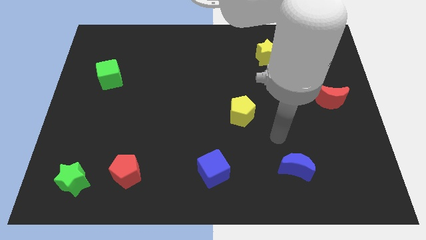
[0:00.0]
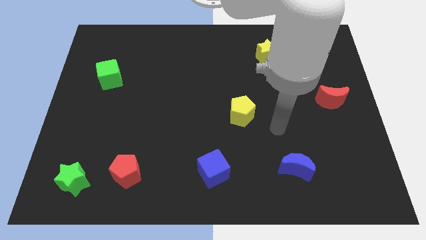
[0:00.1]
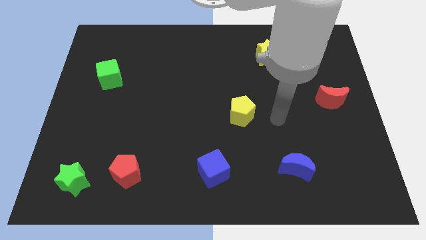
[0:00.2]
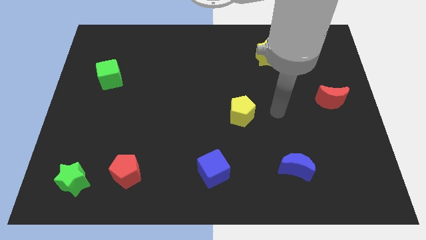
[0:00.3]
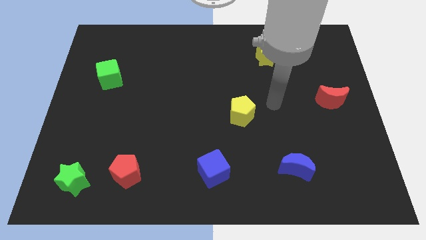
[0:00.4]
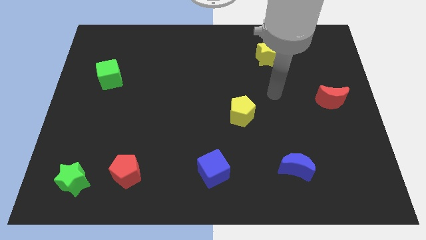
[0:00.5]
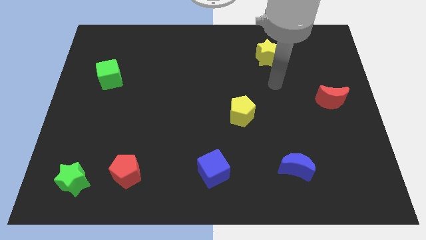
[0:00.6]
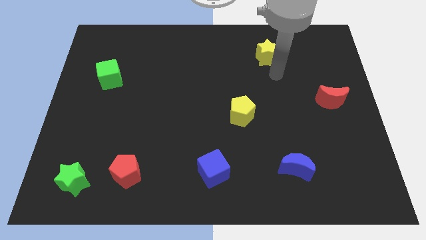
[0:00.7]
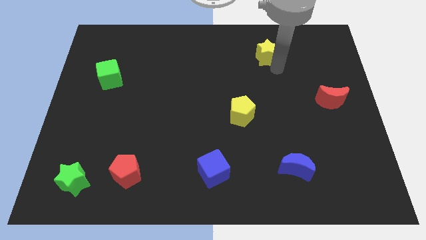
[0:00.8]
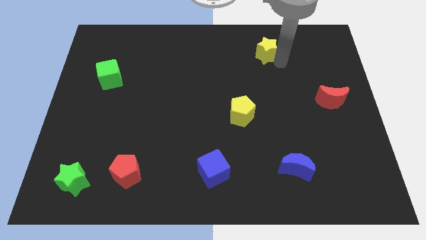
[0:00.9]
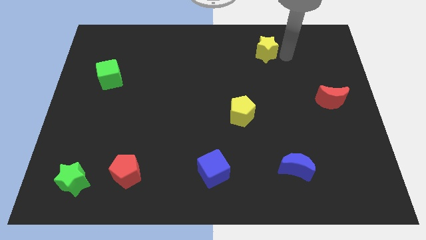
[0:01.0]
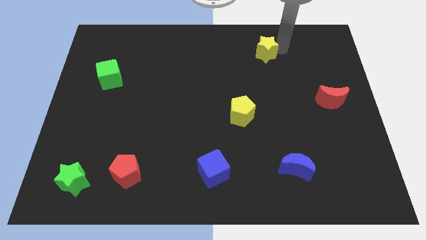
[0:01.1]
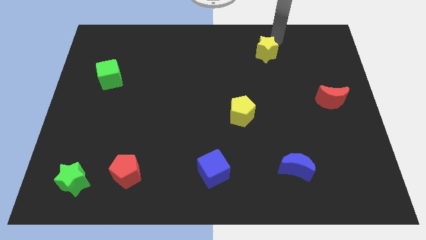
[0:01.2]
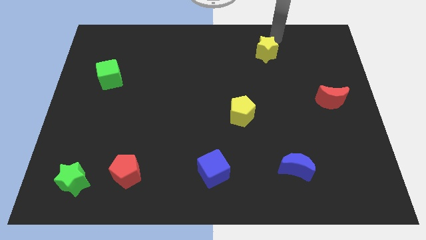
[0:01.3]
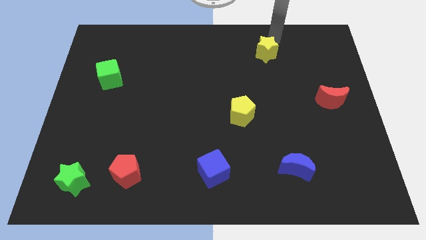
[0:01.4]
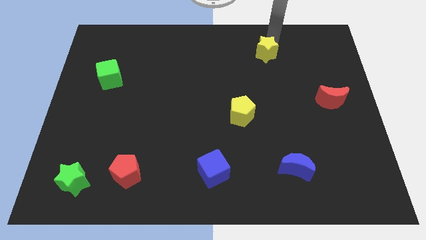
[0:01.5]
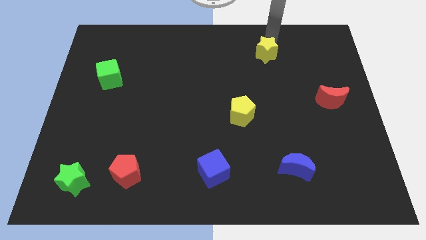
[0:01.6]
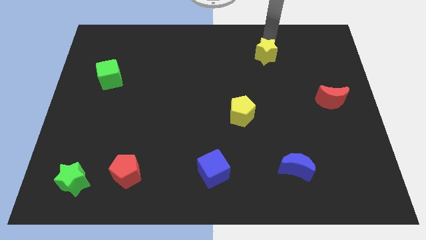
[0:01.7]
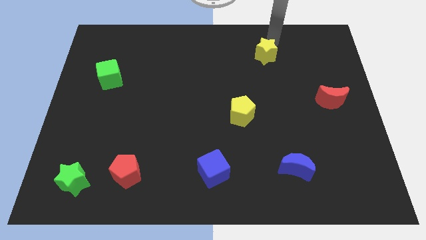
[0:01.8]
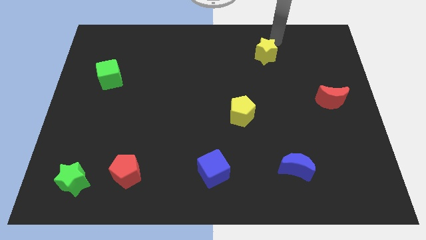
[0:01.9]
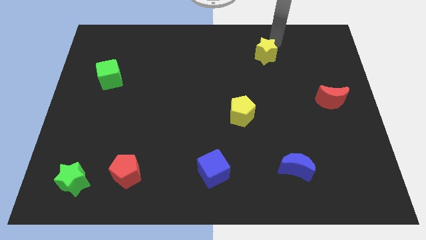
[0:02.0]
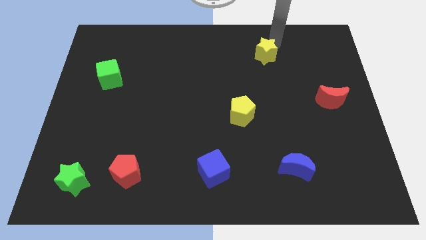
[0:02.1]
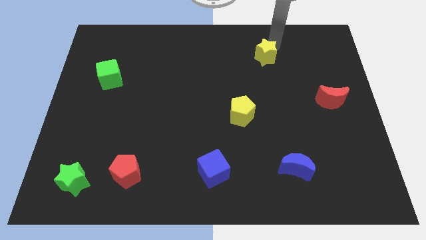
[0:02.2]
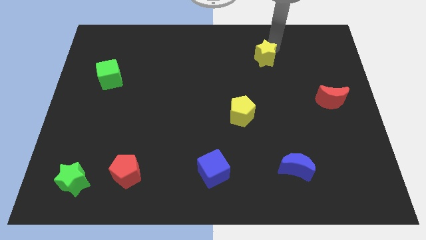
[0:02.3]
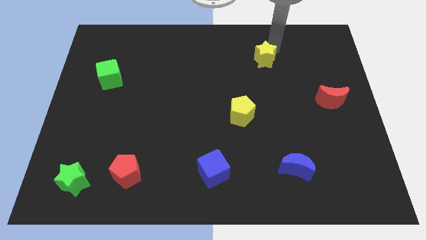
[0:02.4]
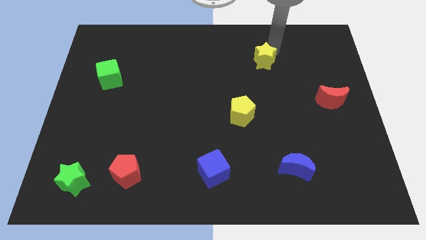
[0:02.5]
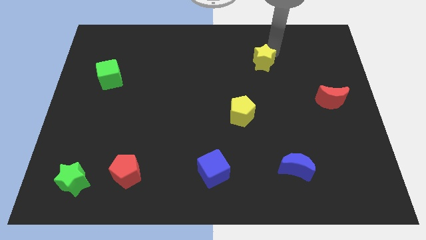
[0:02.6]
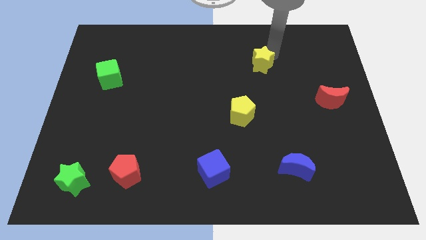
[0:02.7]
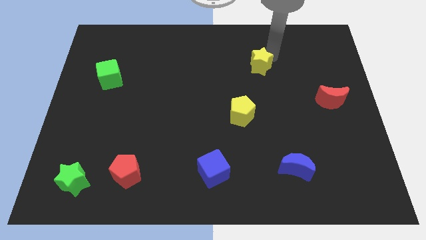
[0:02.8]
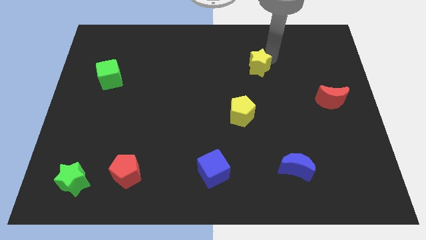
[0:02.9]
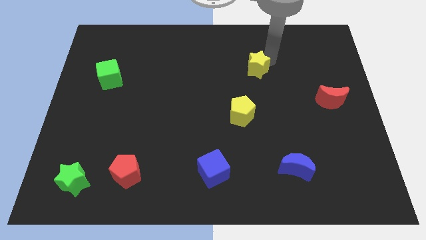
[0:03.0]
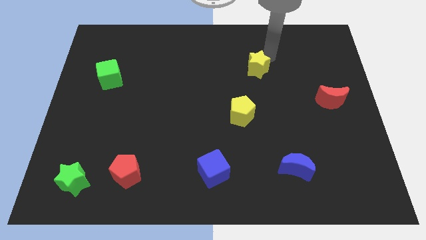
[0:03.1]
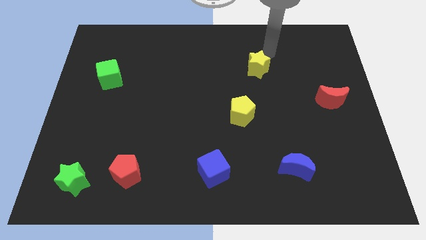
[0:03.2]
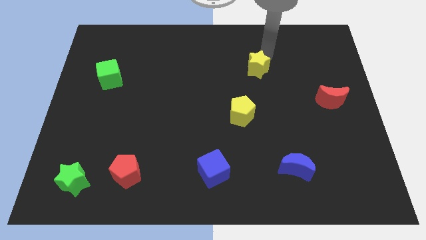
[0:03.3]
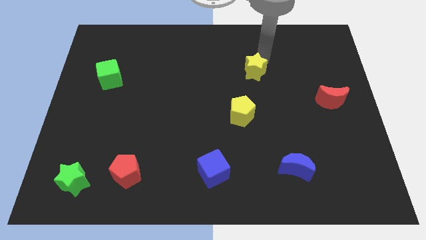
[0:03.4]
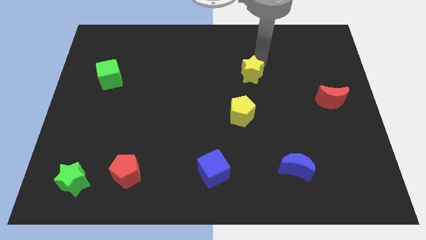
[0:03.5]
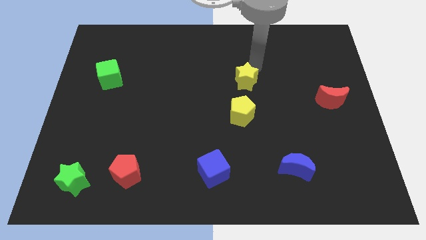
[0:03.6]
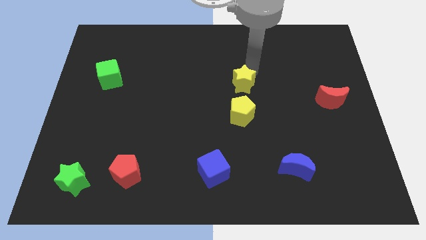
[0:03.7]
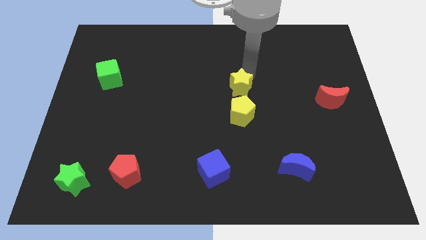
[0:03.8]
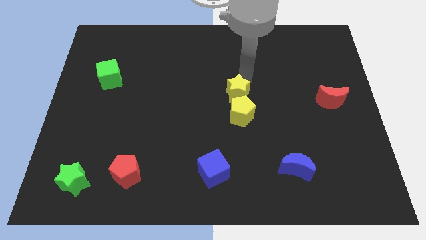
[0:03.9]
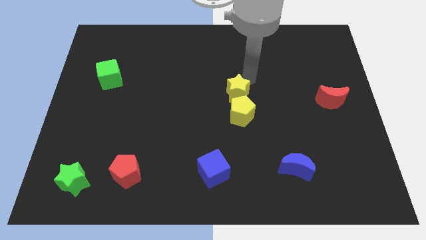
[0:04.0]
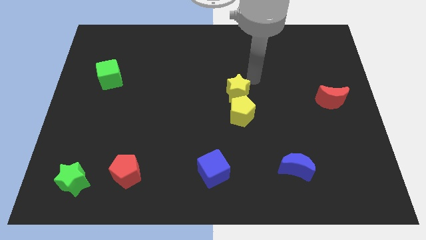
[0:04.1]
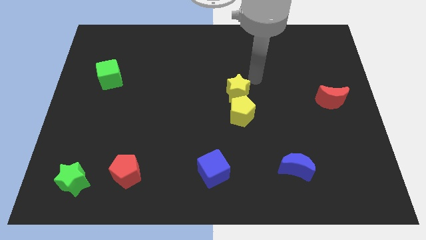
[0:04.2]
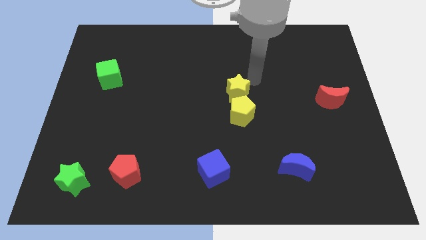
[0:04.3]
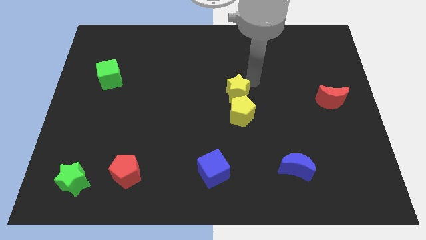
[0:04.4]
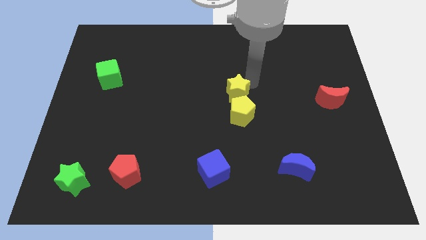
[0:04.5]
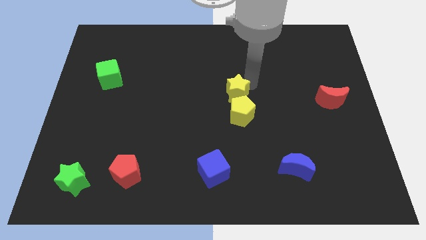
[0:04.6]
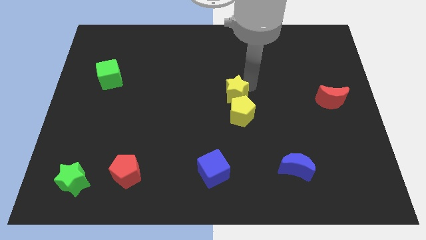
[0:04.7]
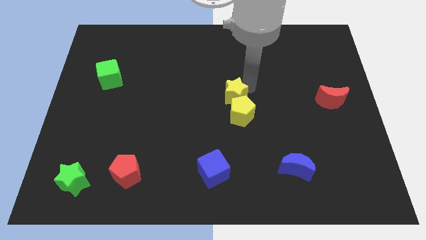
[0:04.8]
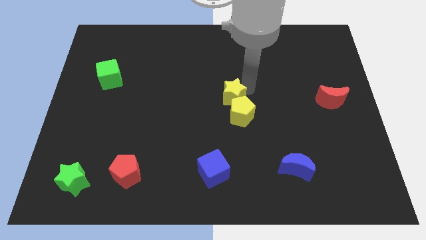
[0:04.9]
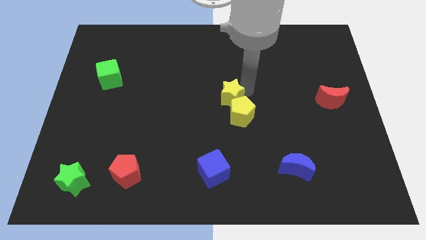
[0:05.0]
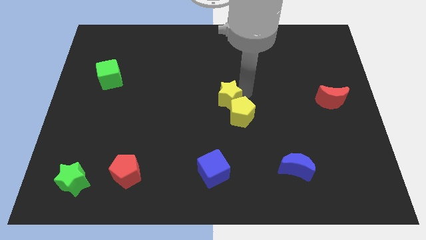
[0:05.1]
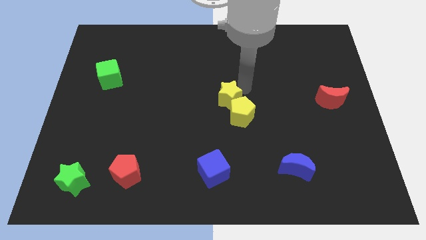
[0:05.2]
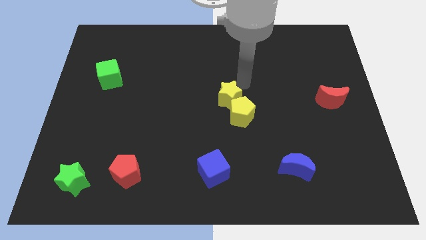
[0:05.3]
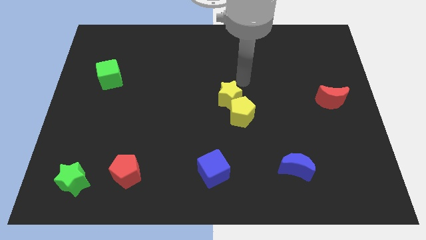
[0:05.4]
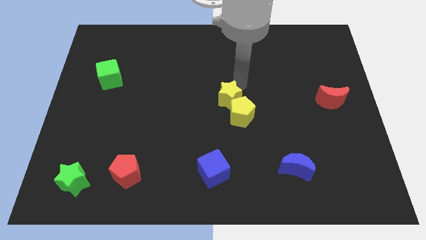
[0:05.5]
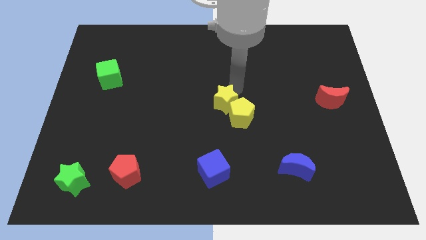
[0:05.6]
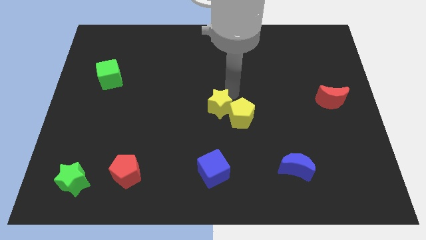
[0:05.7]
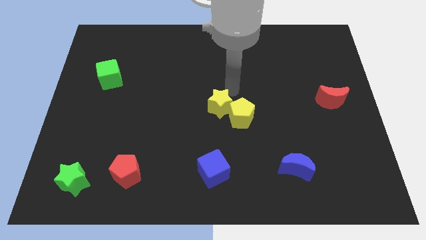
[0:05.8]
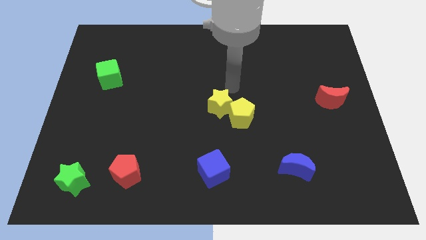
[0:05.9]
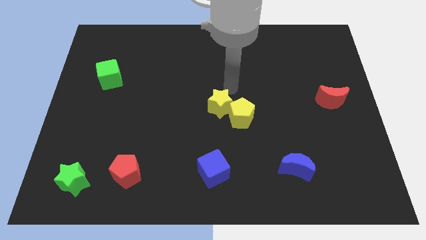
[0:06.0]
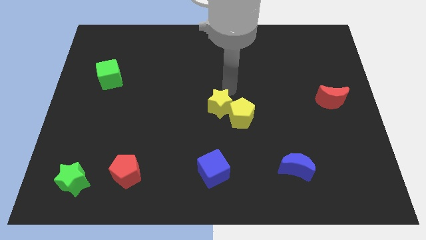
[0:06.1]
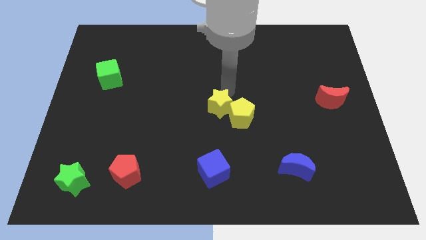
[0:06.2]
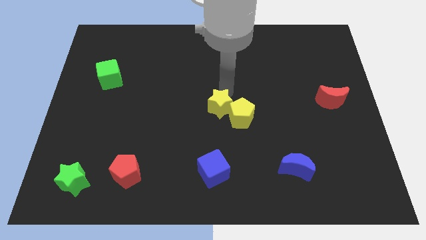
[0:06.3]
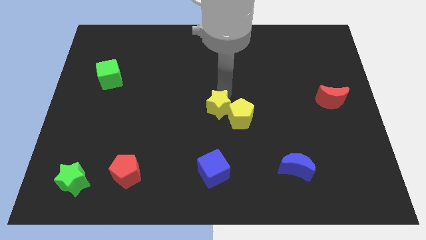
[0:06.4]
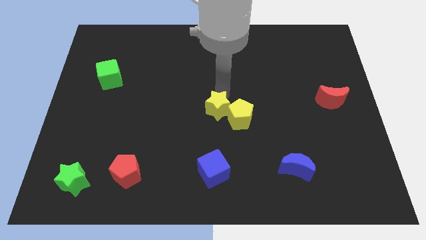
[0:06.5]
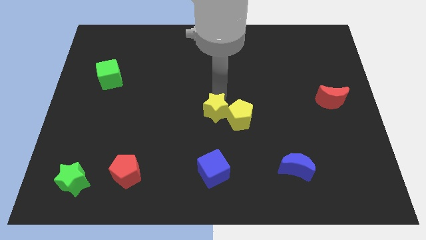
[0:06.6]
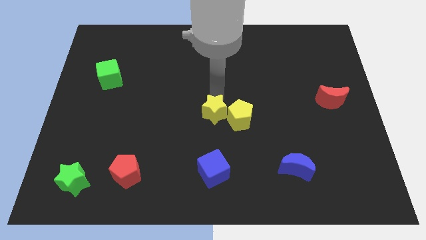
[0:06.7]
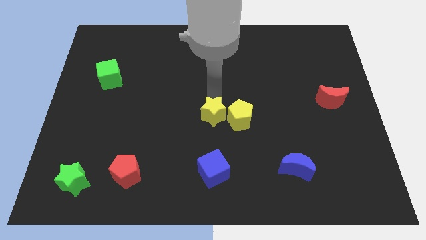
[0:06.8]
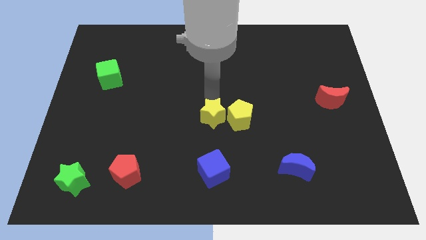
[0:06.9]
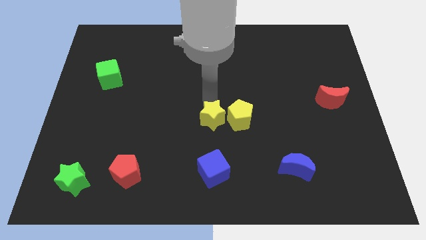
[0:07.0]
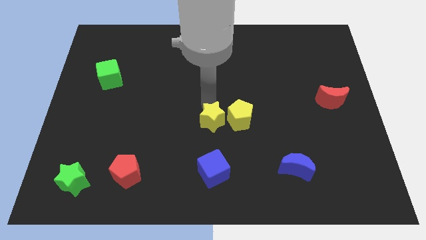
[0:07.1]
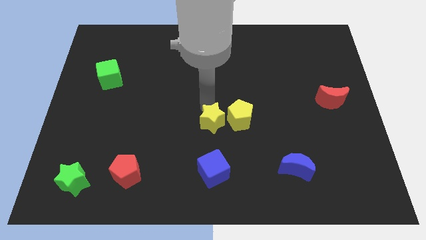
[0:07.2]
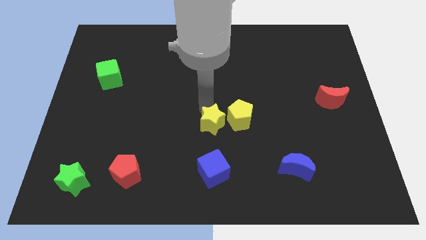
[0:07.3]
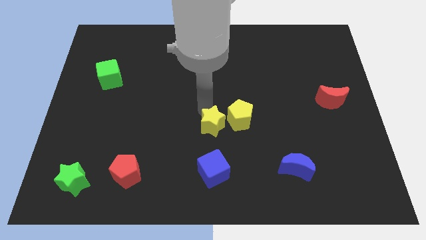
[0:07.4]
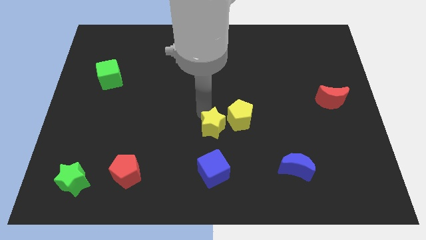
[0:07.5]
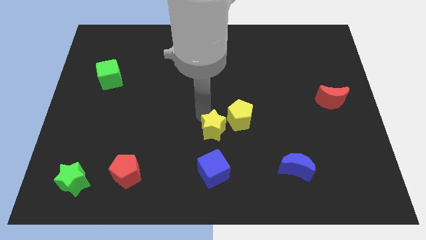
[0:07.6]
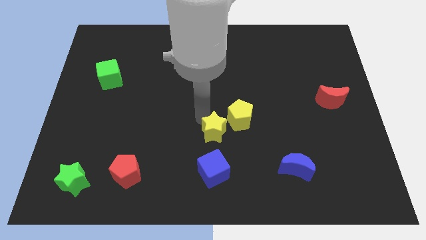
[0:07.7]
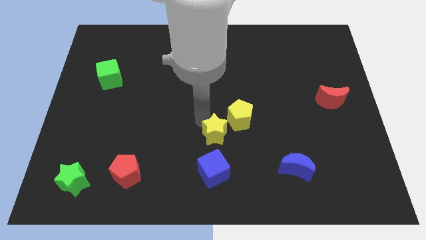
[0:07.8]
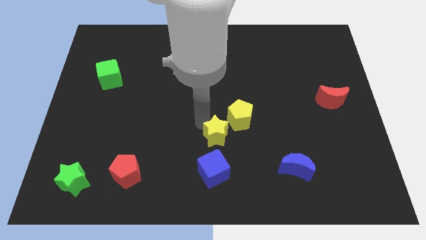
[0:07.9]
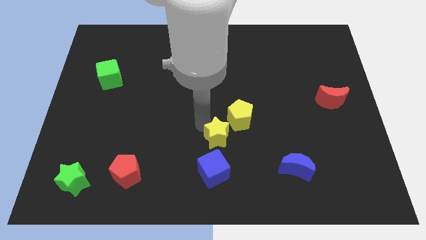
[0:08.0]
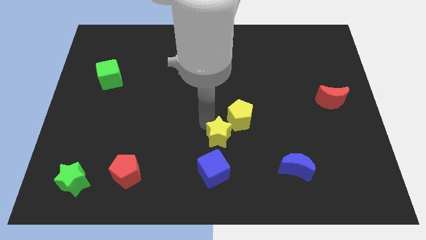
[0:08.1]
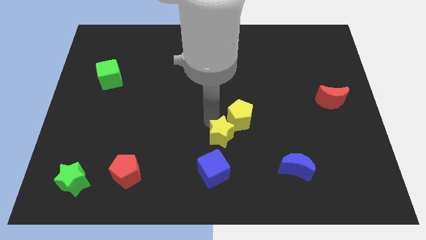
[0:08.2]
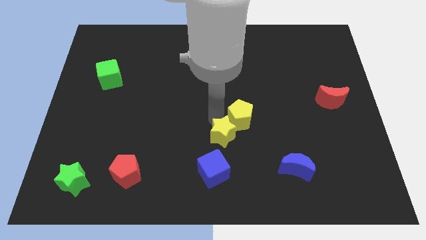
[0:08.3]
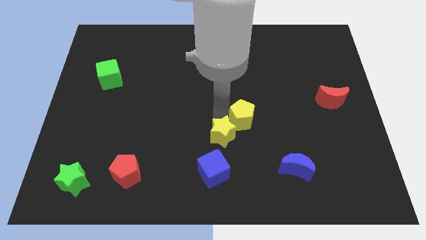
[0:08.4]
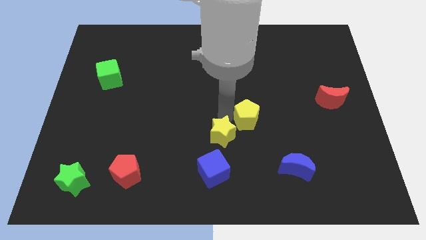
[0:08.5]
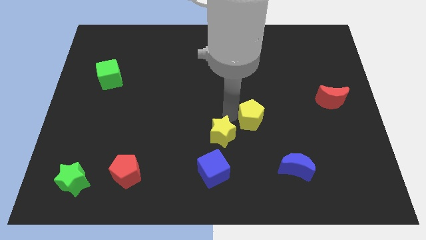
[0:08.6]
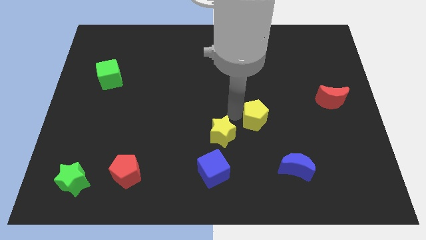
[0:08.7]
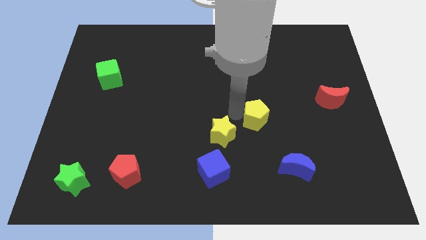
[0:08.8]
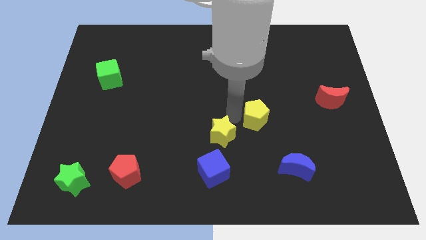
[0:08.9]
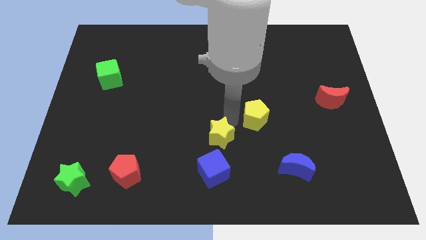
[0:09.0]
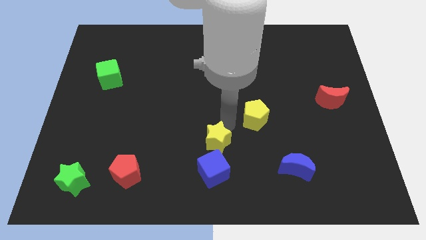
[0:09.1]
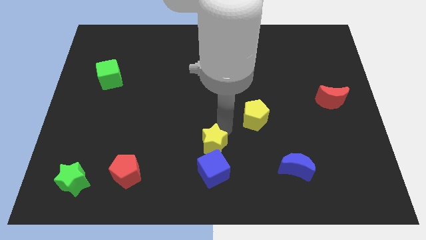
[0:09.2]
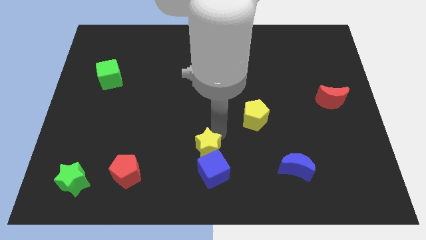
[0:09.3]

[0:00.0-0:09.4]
put the yellow star to the blue cube
